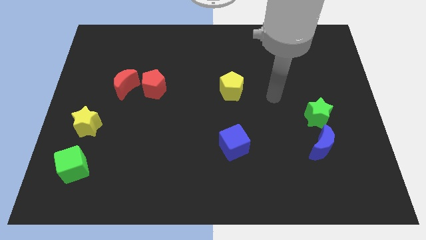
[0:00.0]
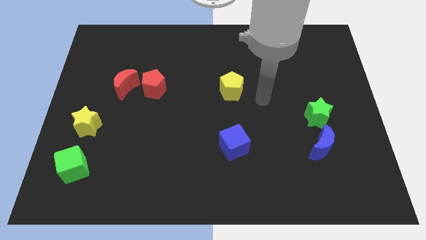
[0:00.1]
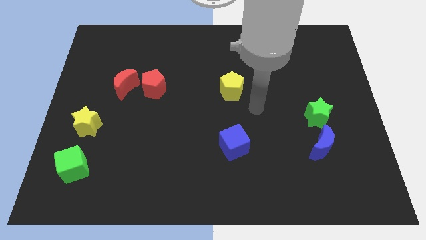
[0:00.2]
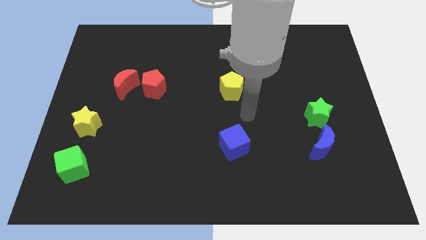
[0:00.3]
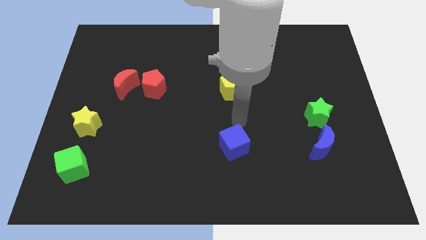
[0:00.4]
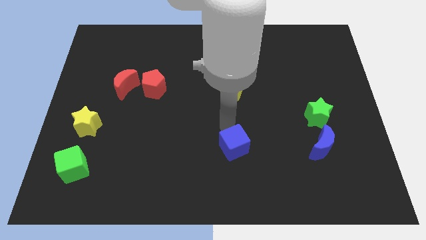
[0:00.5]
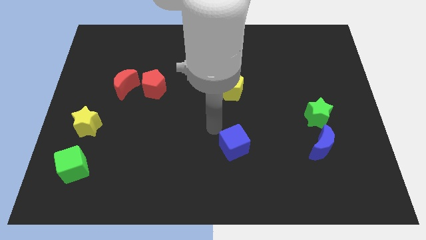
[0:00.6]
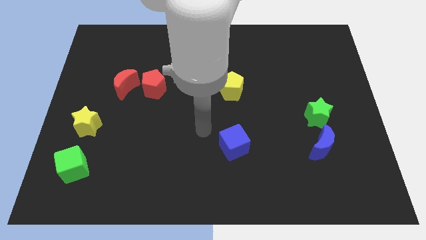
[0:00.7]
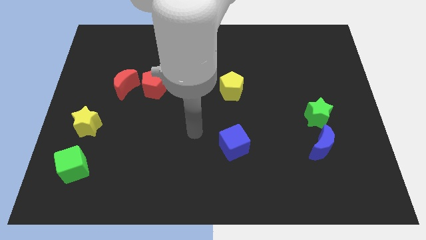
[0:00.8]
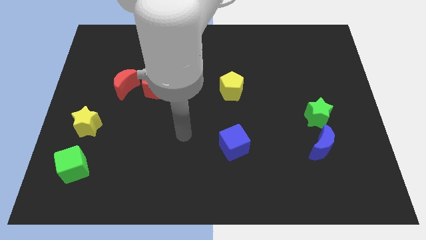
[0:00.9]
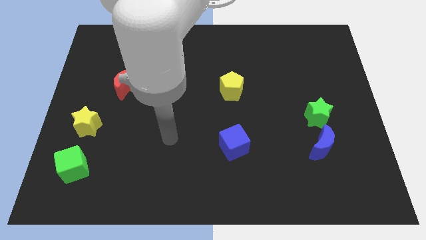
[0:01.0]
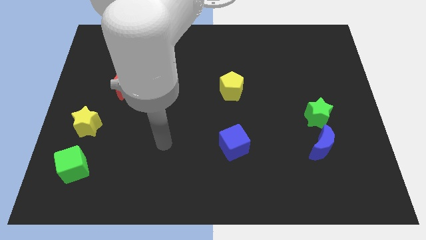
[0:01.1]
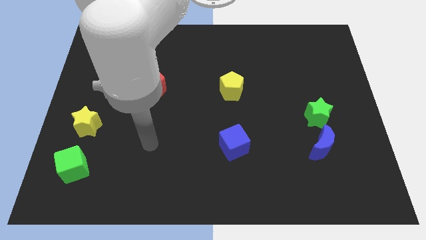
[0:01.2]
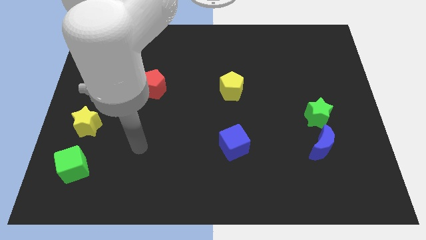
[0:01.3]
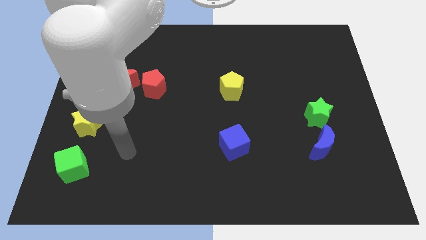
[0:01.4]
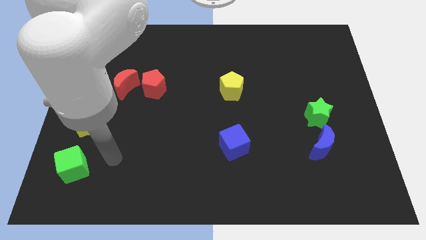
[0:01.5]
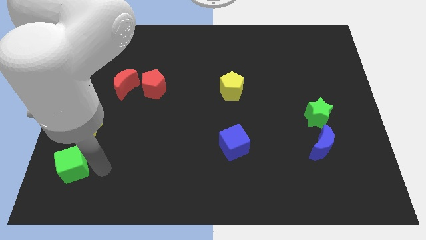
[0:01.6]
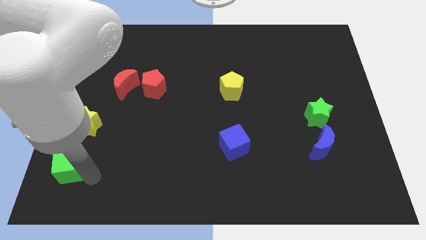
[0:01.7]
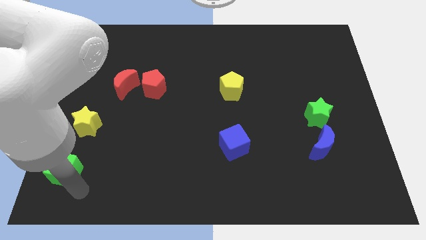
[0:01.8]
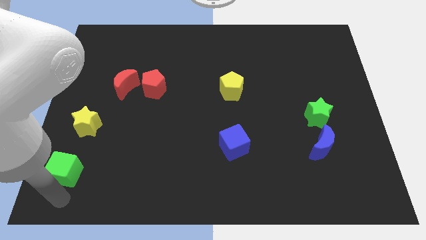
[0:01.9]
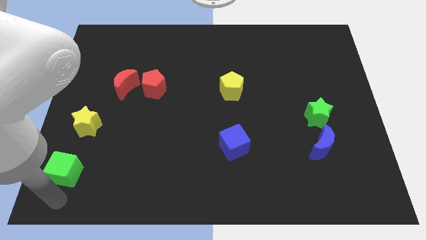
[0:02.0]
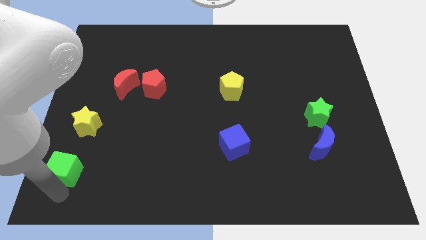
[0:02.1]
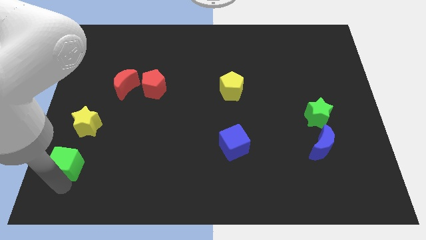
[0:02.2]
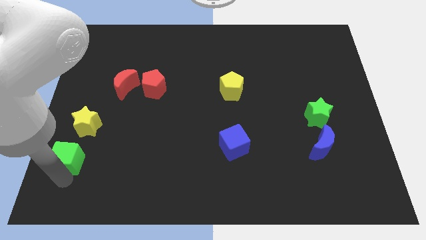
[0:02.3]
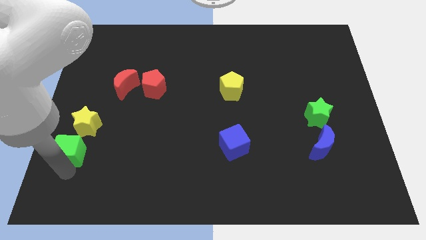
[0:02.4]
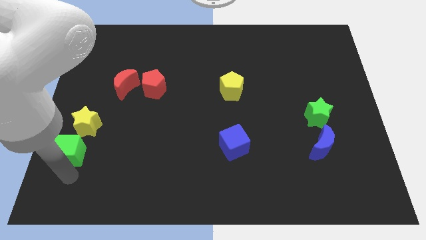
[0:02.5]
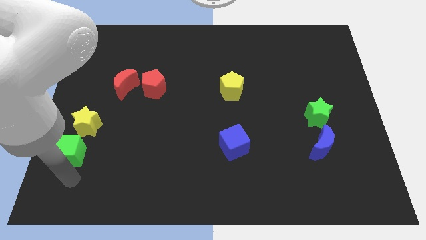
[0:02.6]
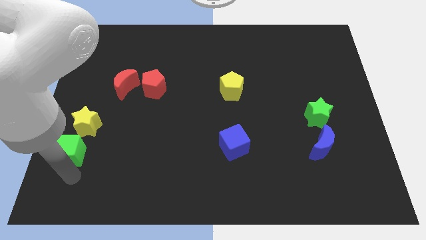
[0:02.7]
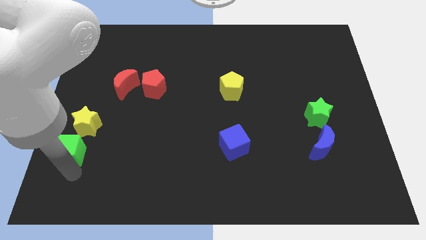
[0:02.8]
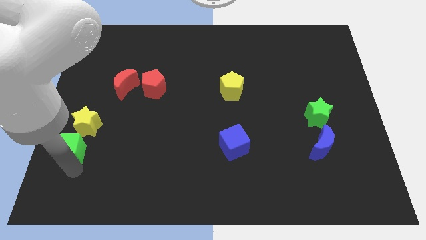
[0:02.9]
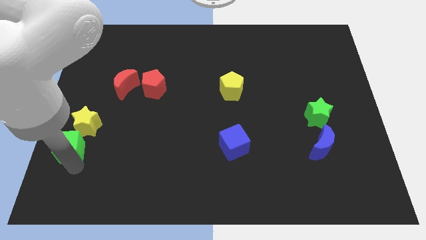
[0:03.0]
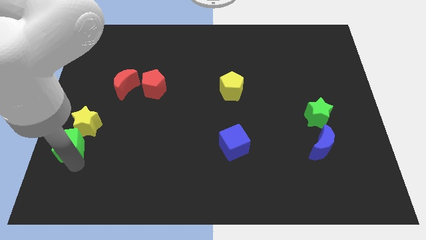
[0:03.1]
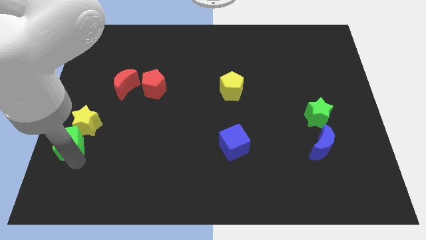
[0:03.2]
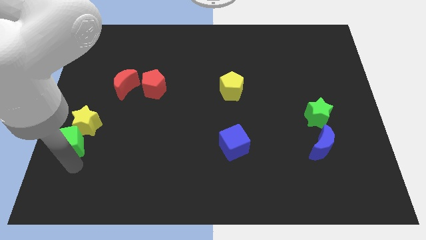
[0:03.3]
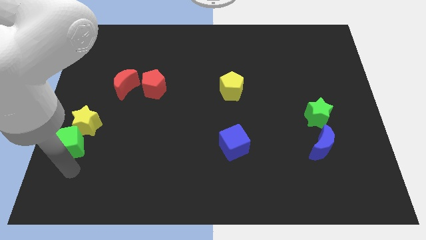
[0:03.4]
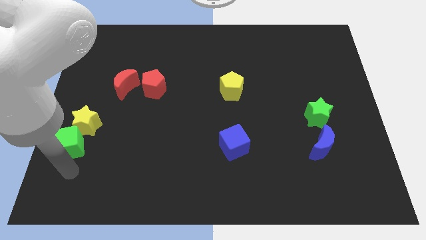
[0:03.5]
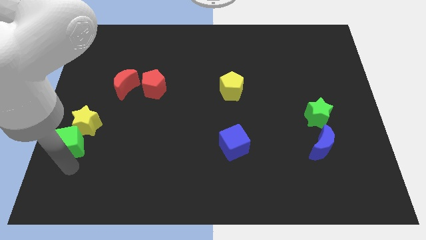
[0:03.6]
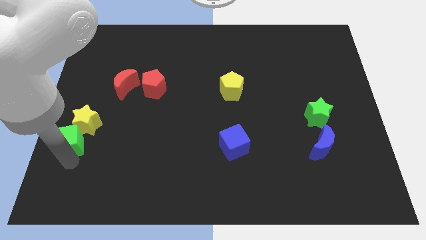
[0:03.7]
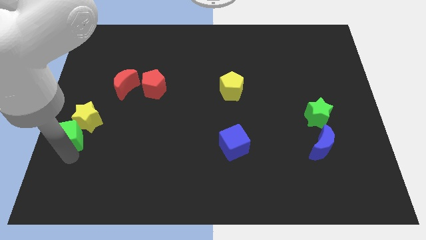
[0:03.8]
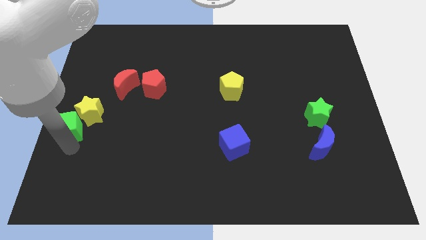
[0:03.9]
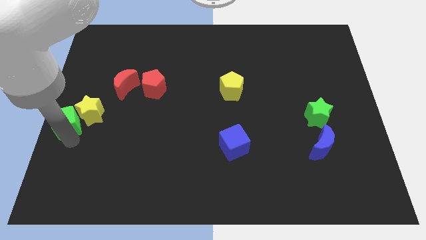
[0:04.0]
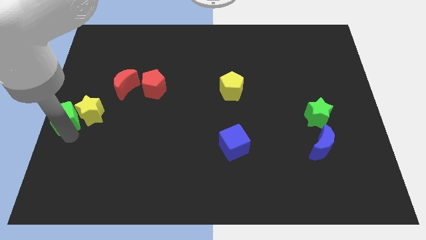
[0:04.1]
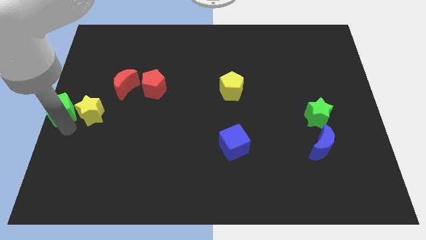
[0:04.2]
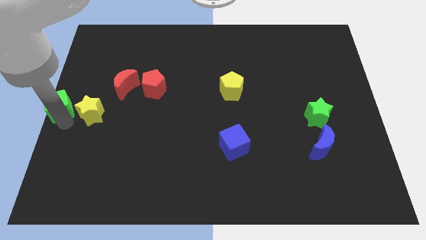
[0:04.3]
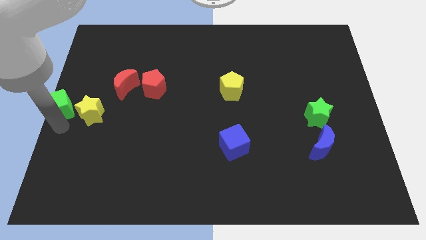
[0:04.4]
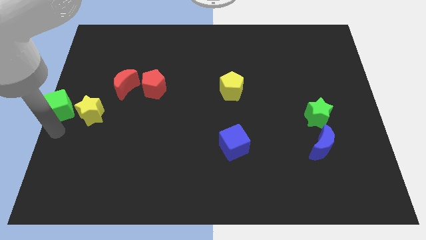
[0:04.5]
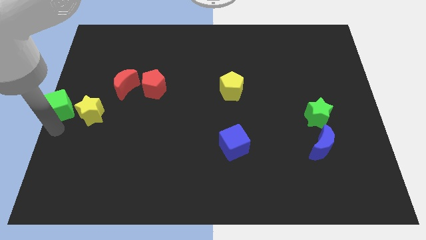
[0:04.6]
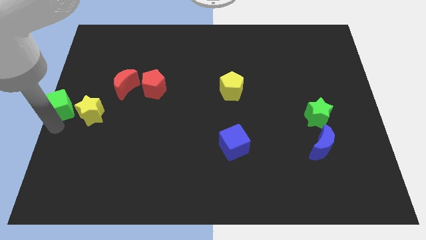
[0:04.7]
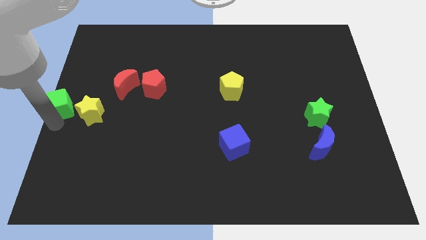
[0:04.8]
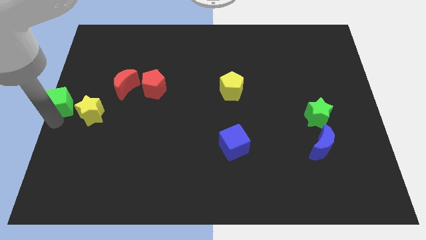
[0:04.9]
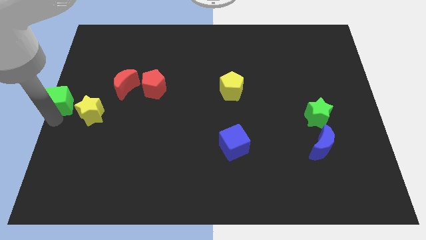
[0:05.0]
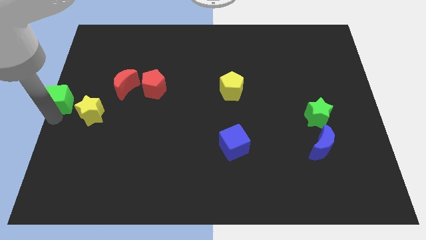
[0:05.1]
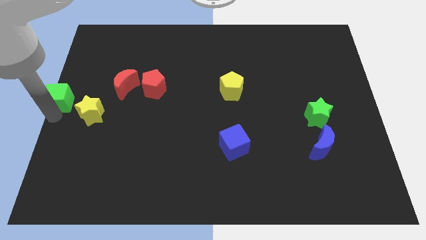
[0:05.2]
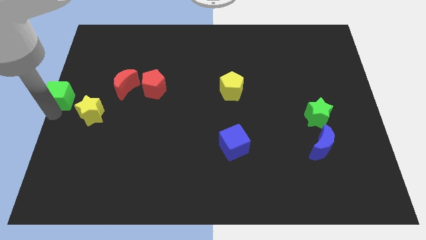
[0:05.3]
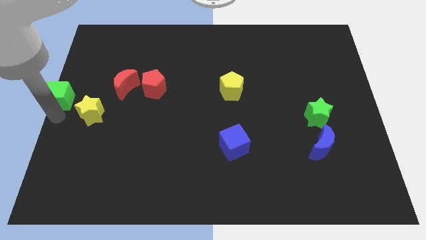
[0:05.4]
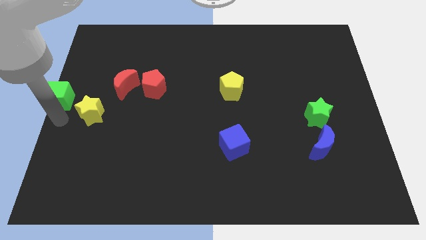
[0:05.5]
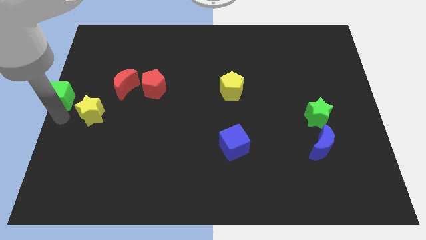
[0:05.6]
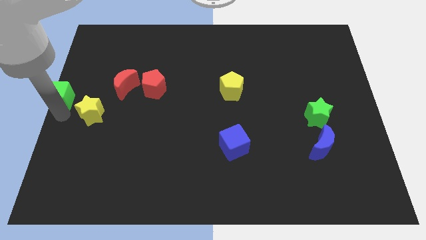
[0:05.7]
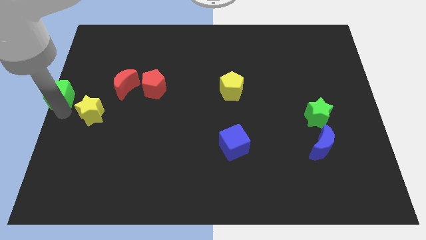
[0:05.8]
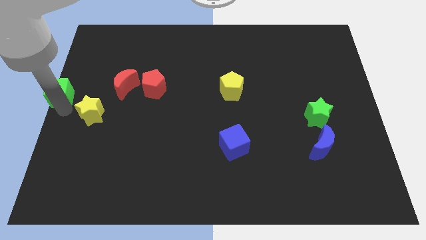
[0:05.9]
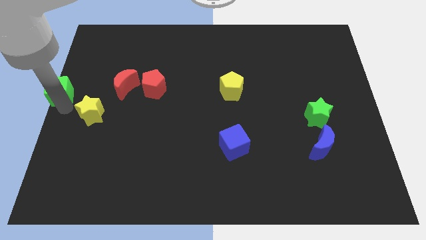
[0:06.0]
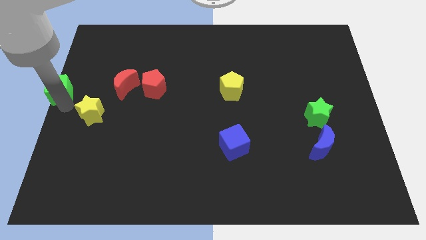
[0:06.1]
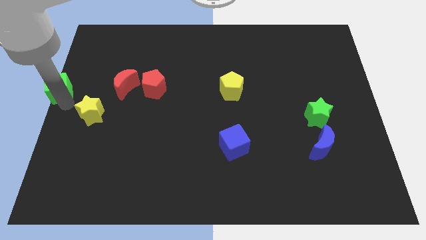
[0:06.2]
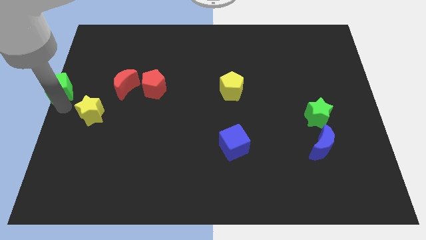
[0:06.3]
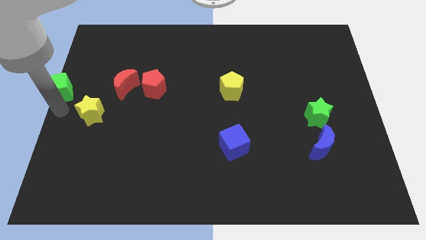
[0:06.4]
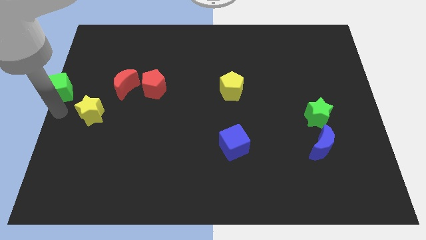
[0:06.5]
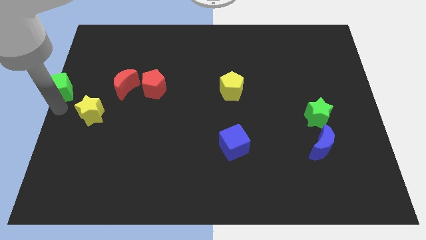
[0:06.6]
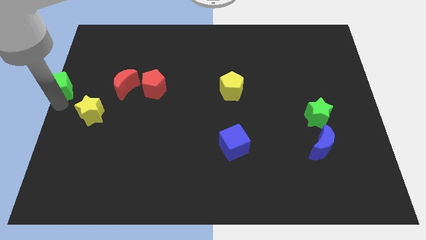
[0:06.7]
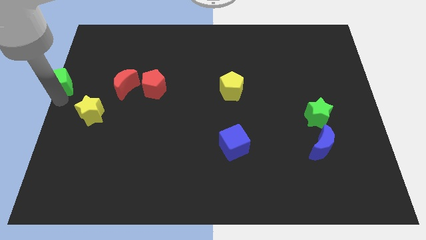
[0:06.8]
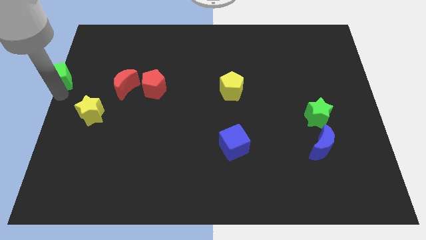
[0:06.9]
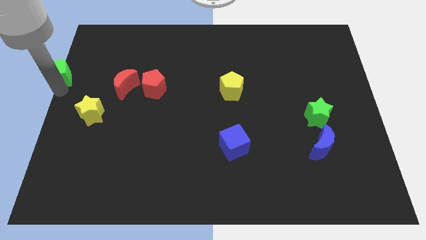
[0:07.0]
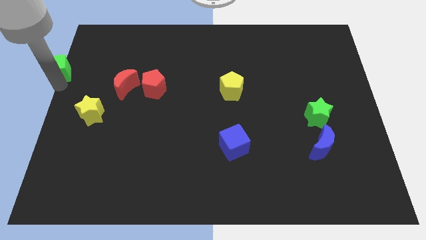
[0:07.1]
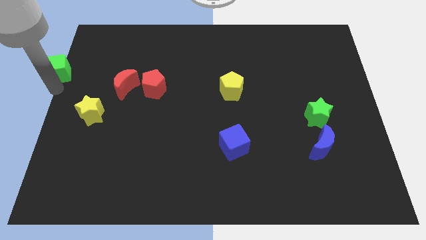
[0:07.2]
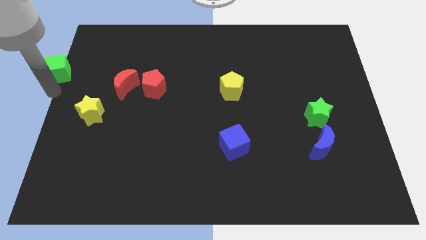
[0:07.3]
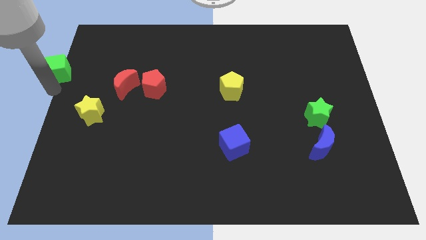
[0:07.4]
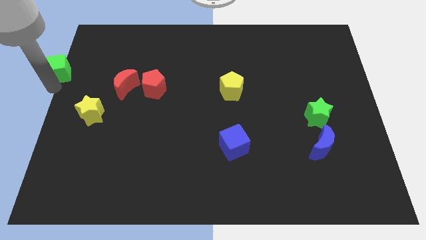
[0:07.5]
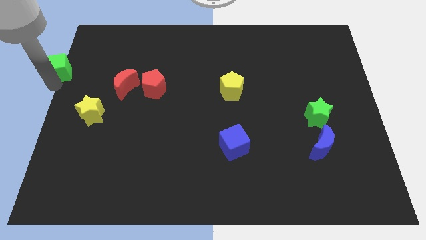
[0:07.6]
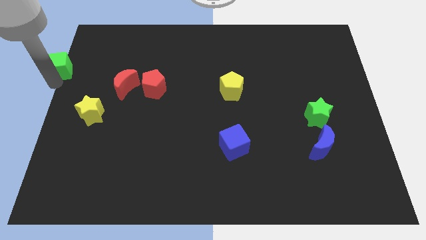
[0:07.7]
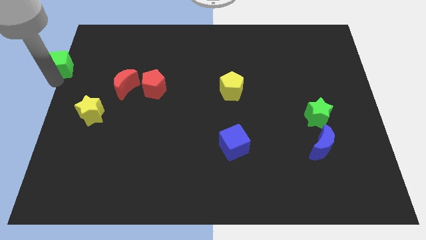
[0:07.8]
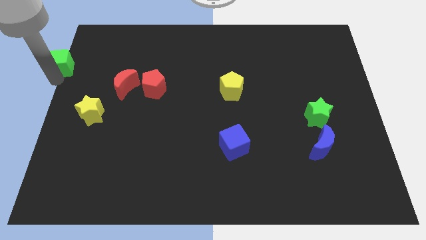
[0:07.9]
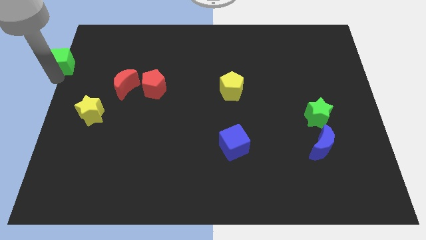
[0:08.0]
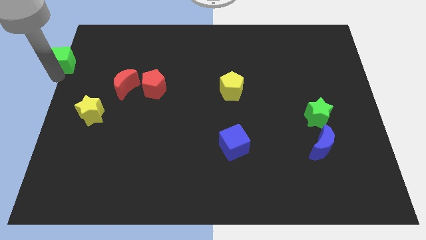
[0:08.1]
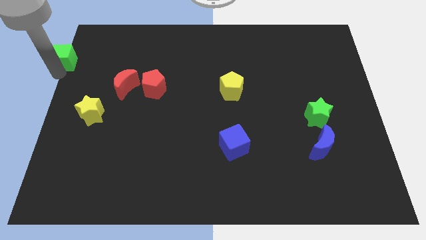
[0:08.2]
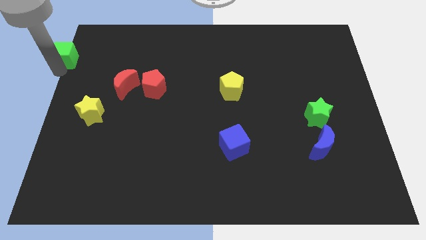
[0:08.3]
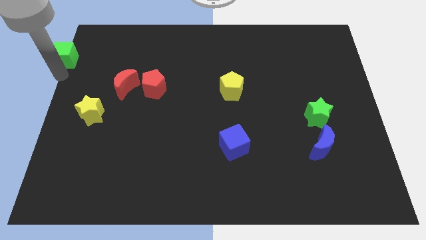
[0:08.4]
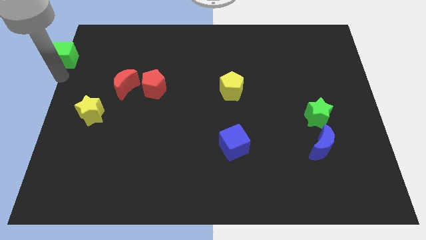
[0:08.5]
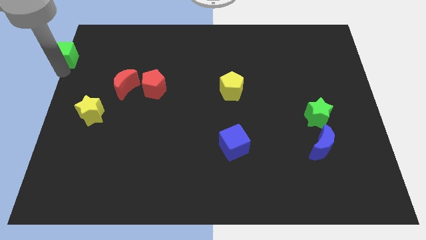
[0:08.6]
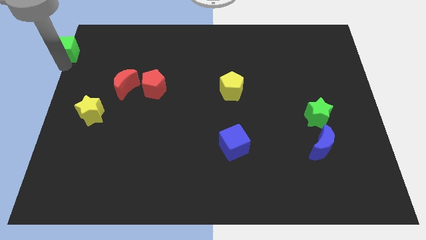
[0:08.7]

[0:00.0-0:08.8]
push the green cube to the top left corner
